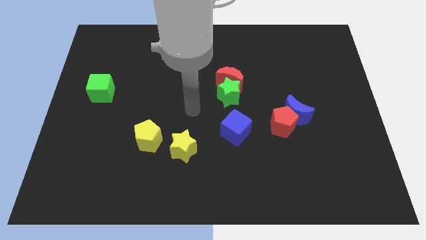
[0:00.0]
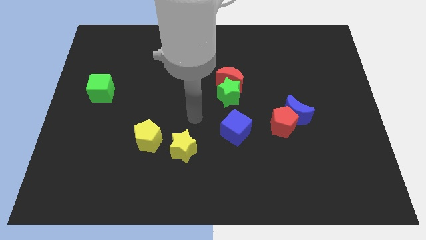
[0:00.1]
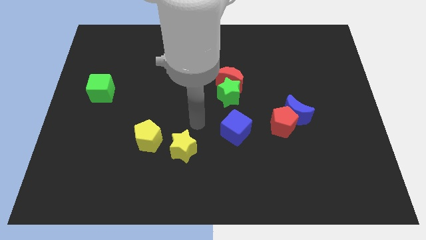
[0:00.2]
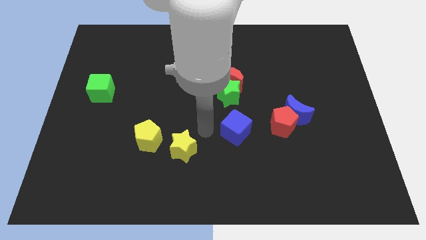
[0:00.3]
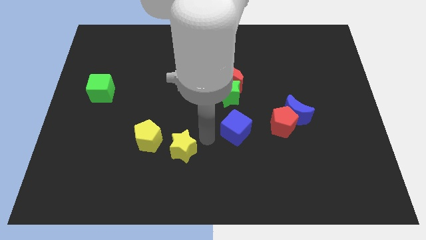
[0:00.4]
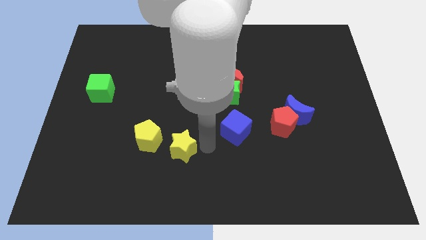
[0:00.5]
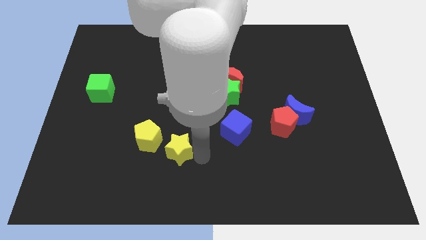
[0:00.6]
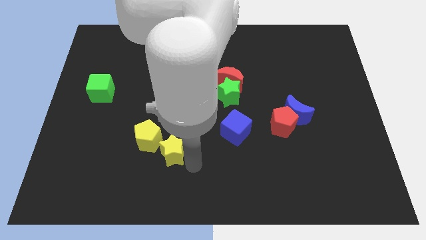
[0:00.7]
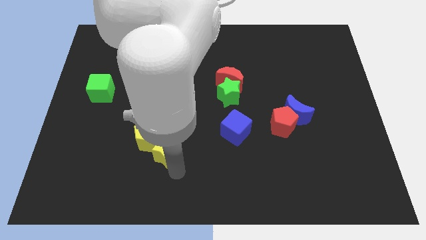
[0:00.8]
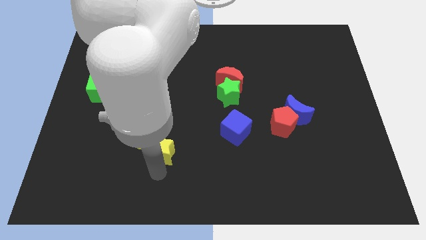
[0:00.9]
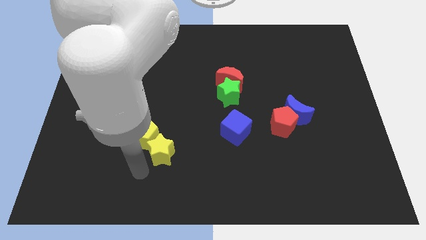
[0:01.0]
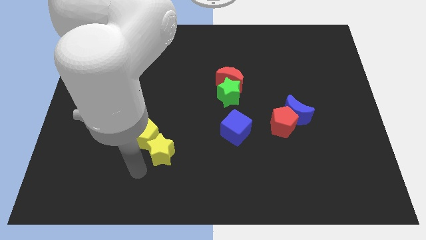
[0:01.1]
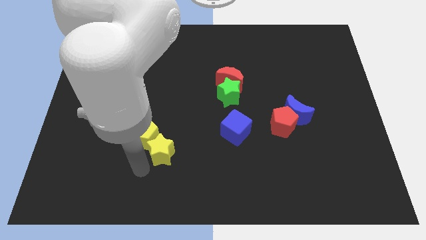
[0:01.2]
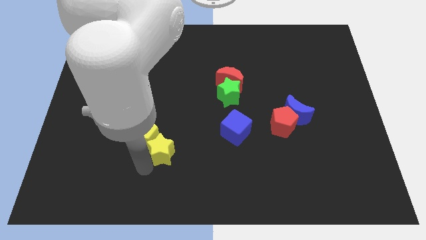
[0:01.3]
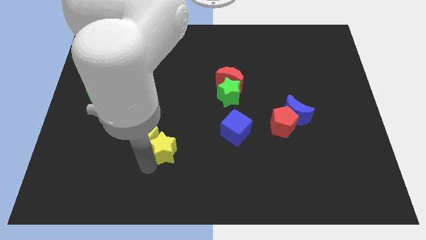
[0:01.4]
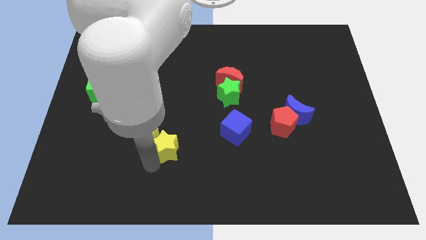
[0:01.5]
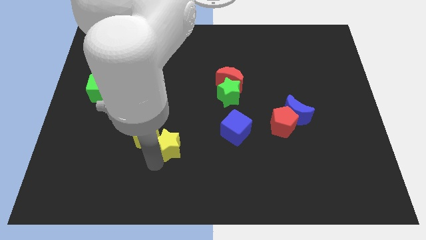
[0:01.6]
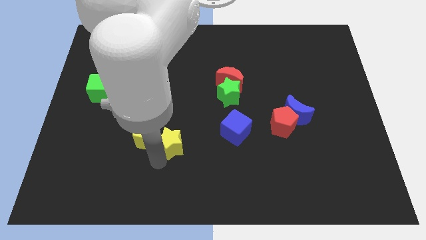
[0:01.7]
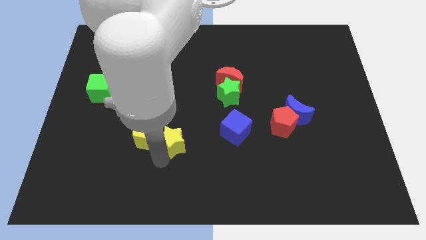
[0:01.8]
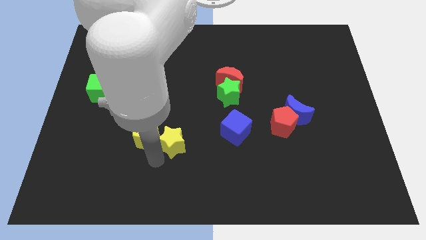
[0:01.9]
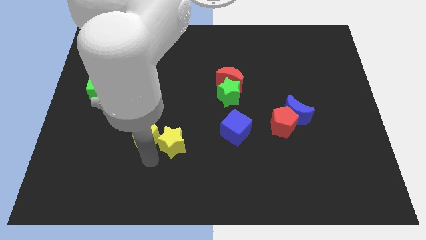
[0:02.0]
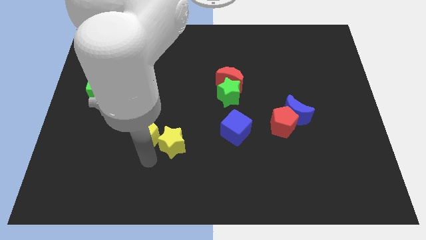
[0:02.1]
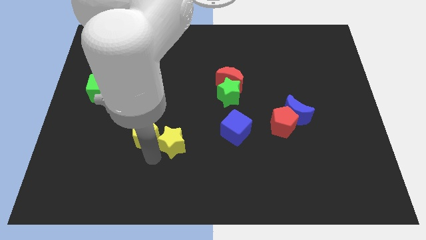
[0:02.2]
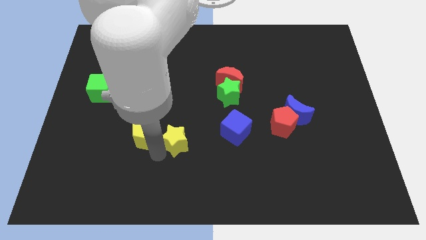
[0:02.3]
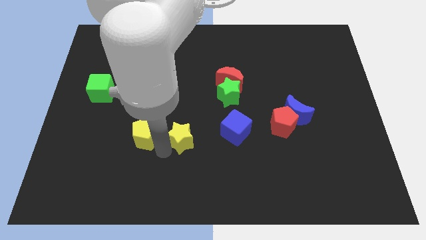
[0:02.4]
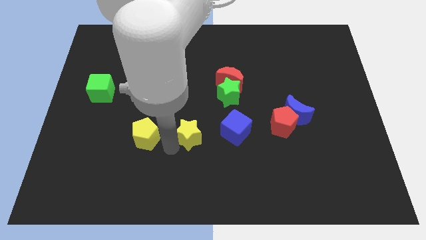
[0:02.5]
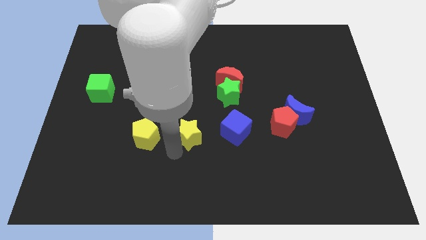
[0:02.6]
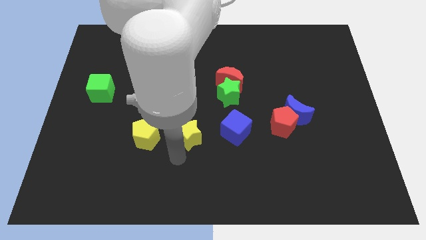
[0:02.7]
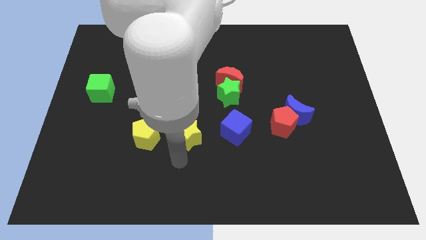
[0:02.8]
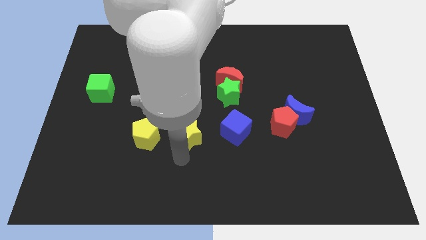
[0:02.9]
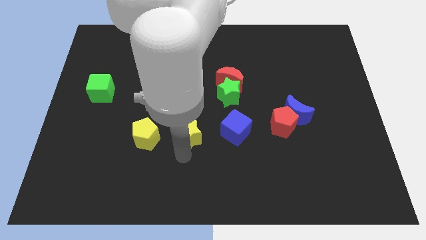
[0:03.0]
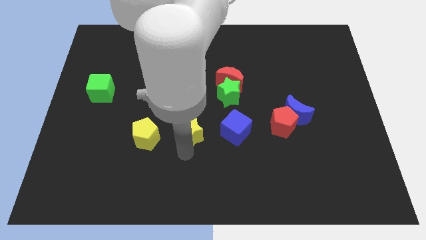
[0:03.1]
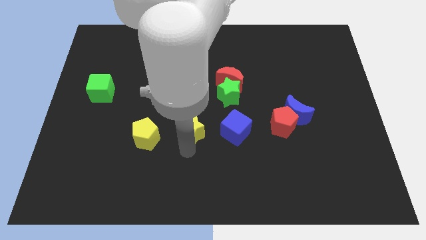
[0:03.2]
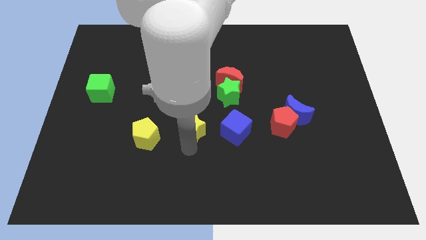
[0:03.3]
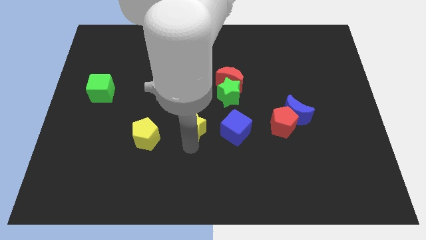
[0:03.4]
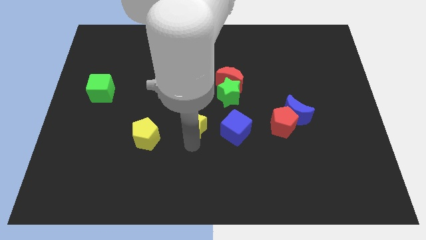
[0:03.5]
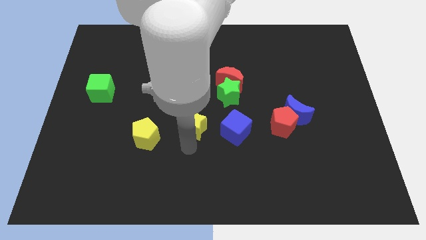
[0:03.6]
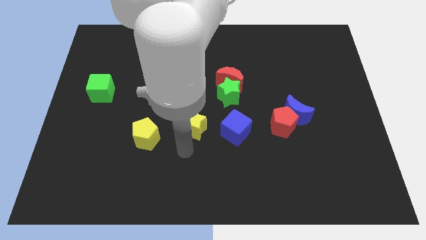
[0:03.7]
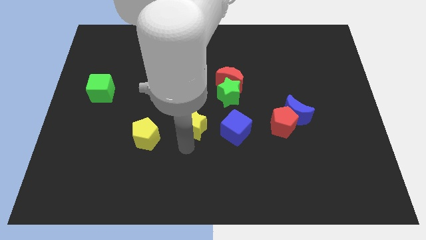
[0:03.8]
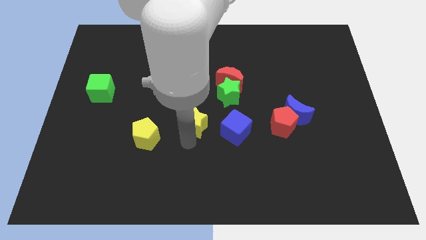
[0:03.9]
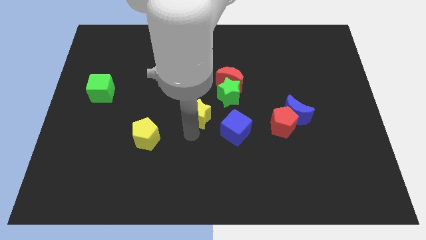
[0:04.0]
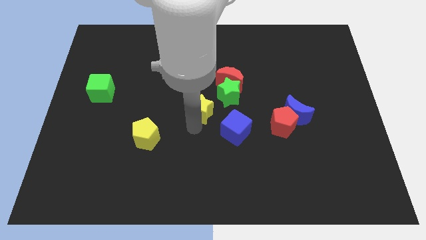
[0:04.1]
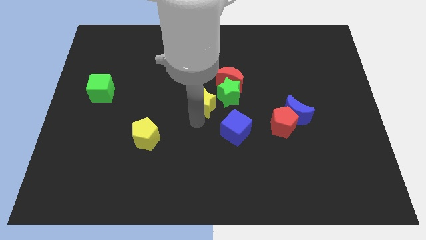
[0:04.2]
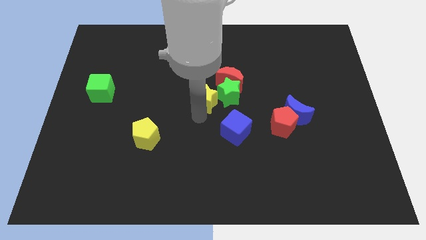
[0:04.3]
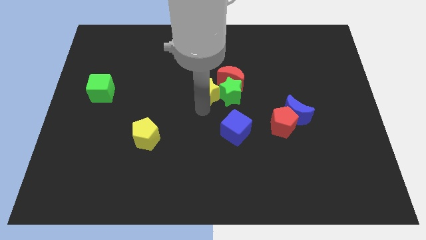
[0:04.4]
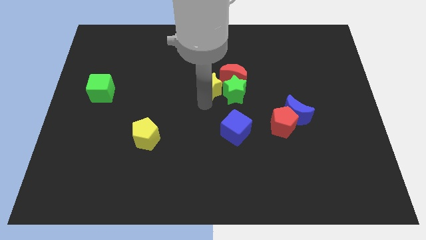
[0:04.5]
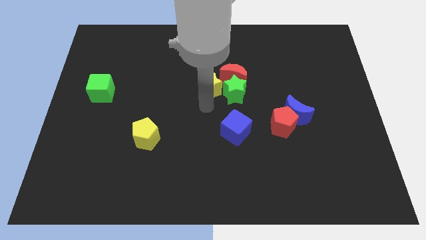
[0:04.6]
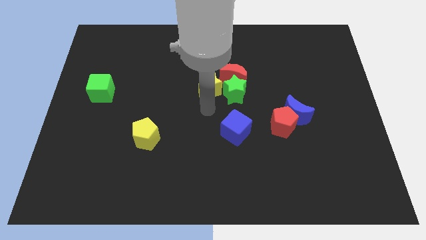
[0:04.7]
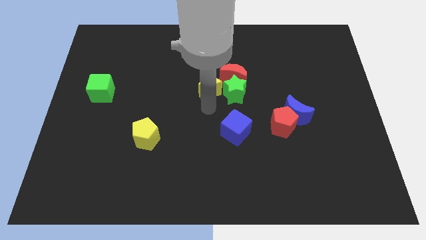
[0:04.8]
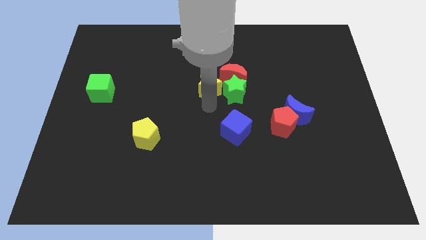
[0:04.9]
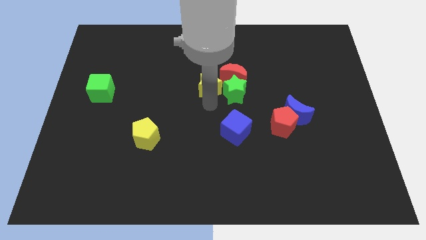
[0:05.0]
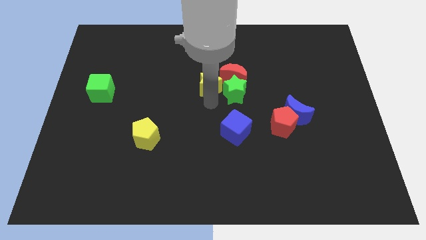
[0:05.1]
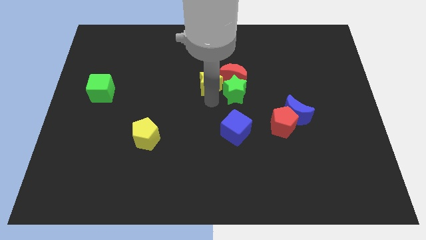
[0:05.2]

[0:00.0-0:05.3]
move the yellow star towards the red moon

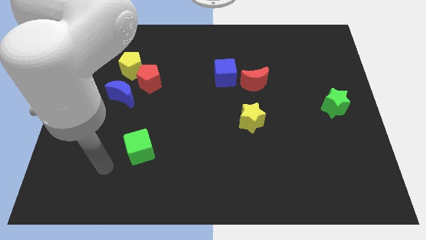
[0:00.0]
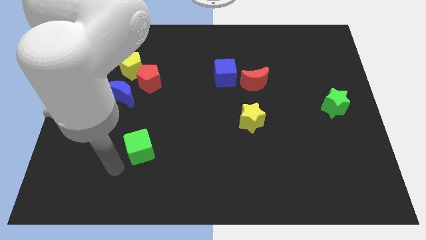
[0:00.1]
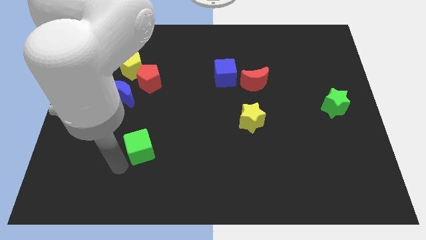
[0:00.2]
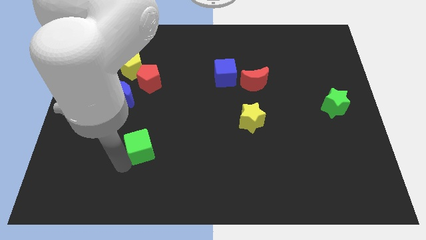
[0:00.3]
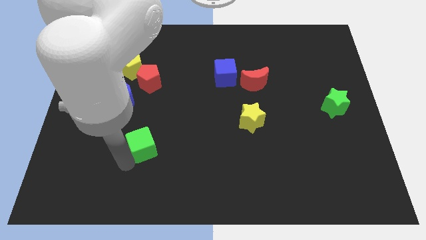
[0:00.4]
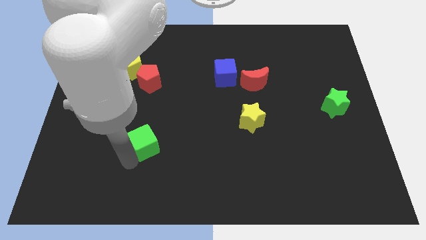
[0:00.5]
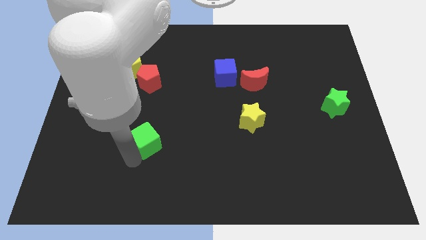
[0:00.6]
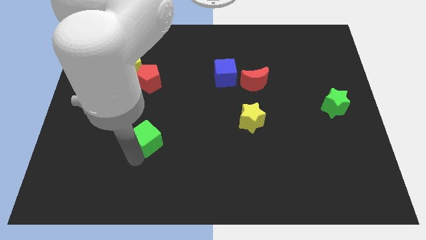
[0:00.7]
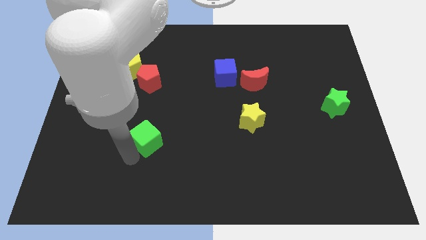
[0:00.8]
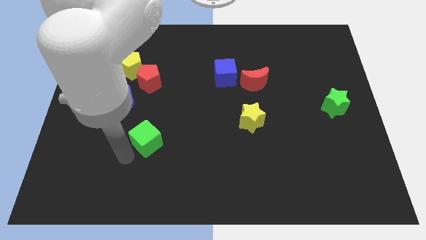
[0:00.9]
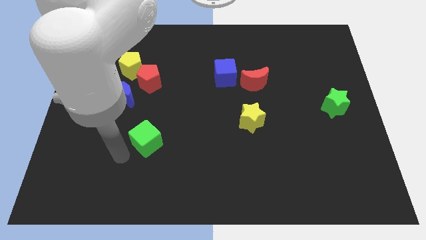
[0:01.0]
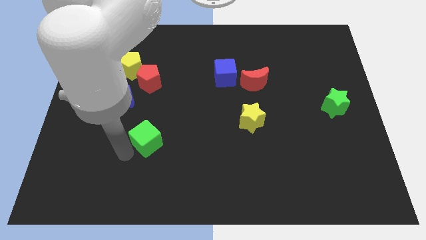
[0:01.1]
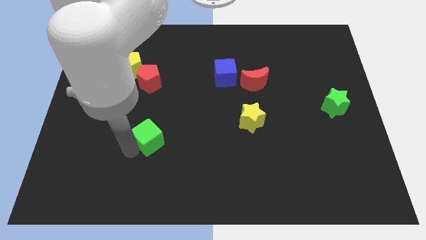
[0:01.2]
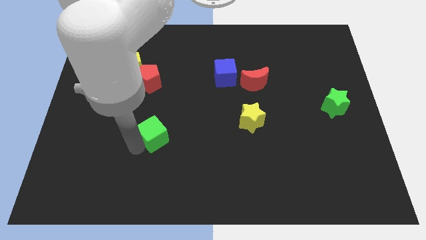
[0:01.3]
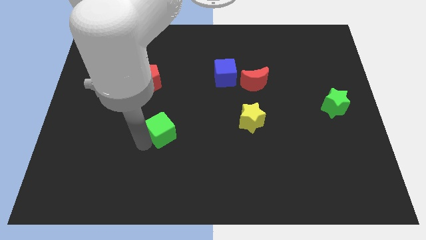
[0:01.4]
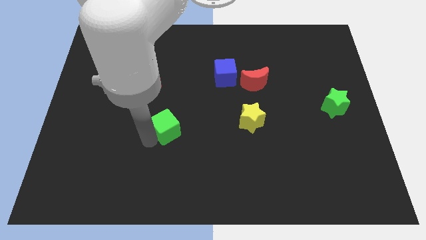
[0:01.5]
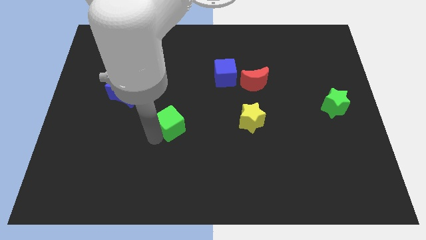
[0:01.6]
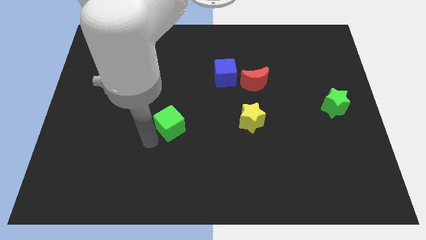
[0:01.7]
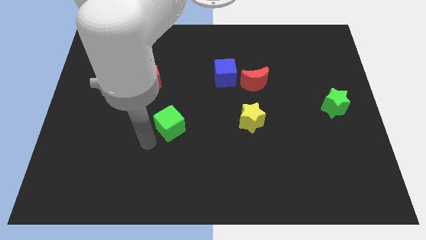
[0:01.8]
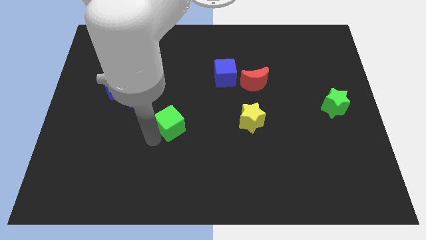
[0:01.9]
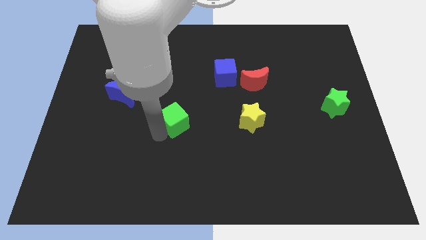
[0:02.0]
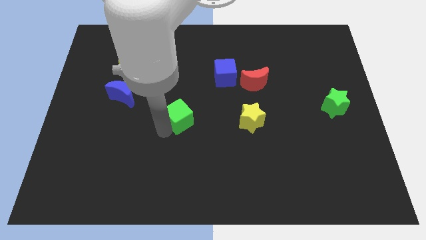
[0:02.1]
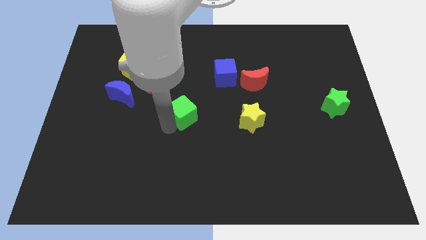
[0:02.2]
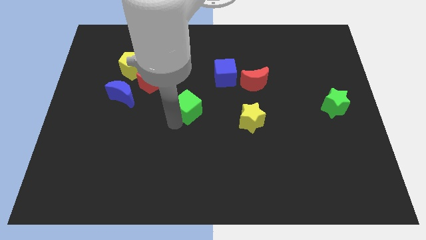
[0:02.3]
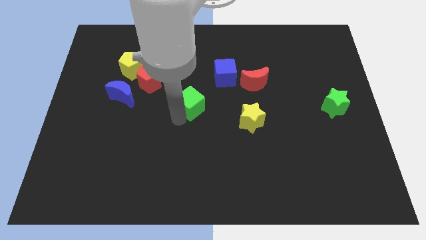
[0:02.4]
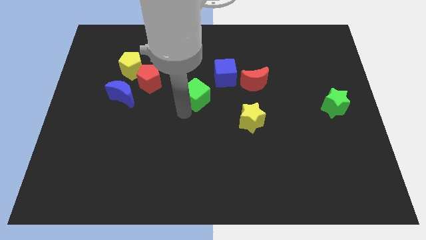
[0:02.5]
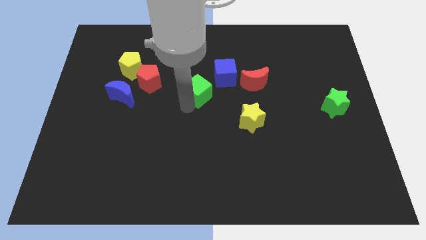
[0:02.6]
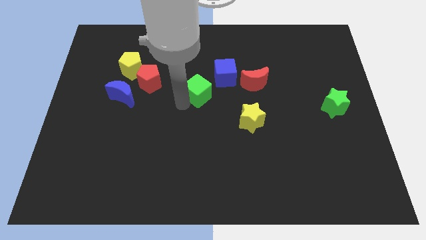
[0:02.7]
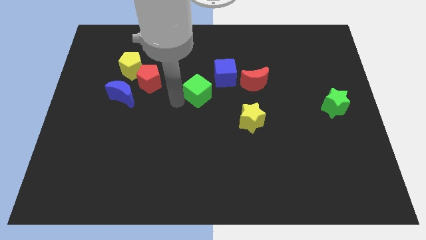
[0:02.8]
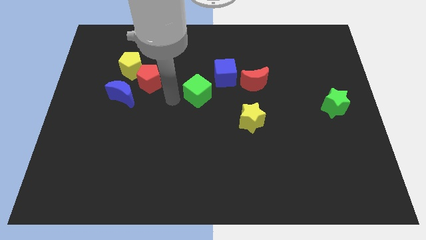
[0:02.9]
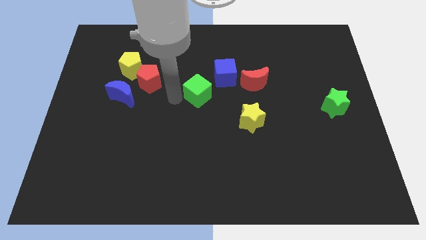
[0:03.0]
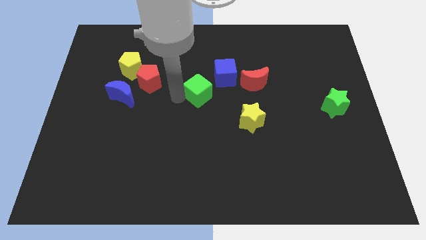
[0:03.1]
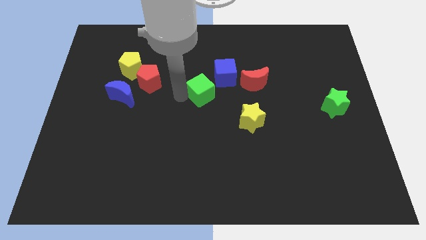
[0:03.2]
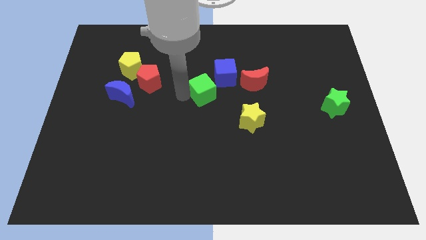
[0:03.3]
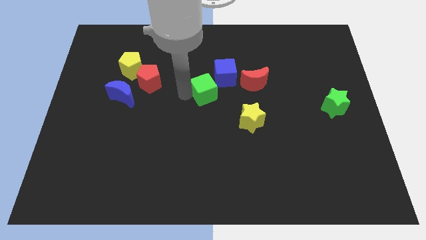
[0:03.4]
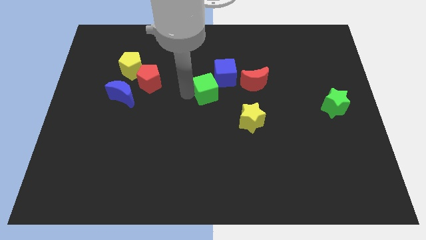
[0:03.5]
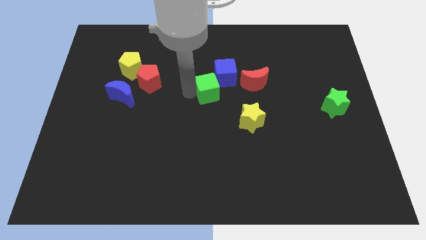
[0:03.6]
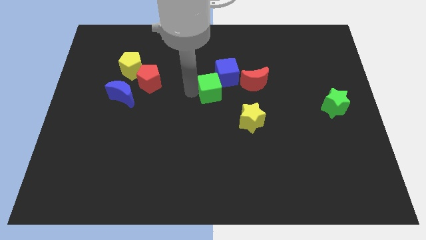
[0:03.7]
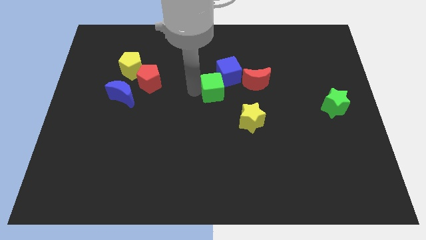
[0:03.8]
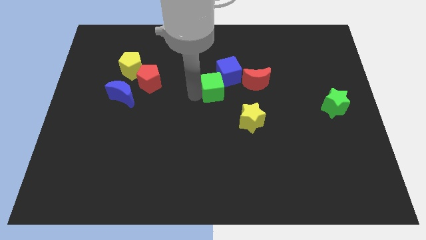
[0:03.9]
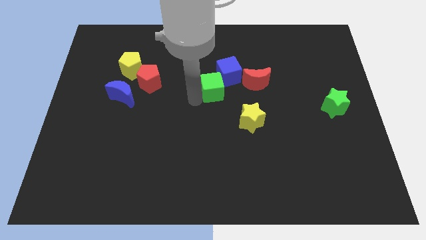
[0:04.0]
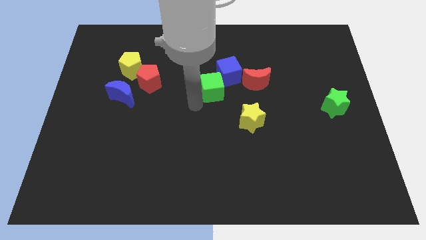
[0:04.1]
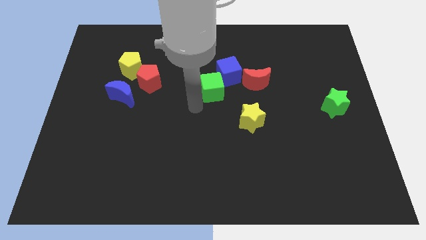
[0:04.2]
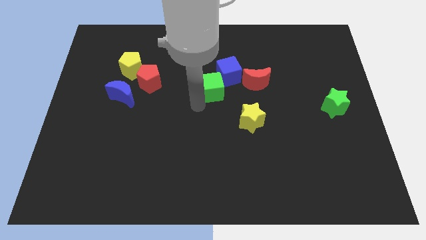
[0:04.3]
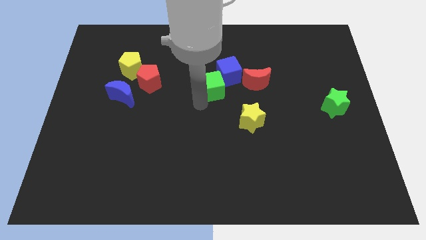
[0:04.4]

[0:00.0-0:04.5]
move the green cube to the blue cube
